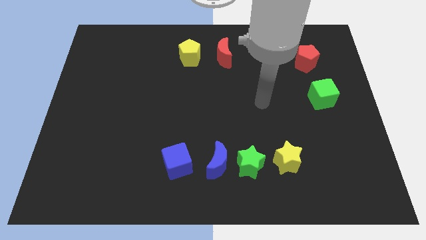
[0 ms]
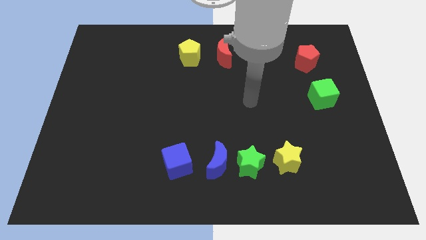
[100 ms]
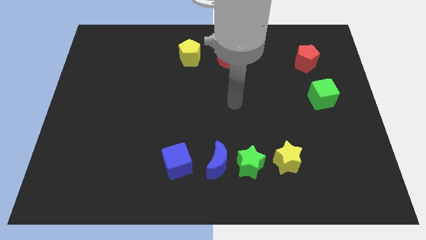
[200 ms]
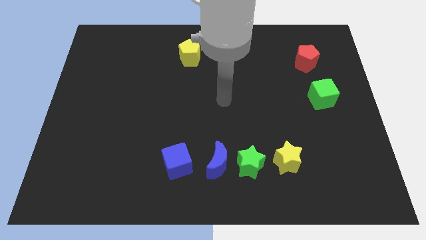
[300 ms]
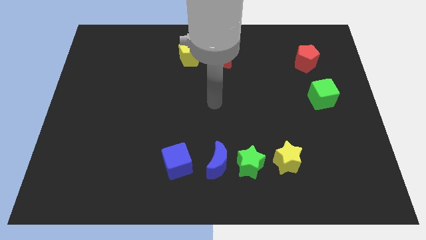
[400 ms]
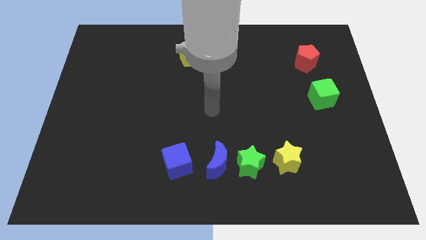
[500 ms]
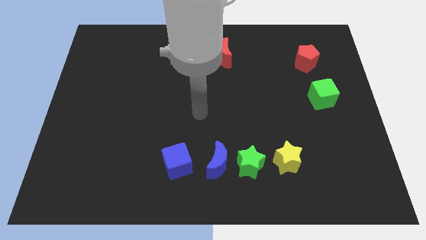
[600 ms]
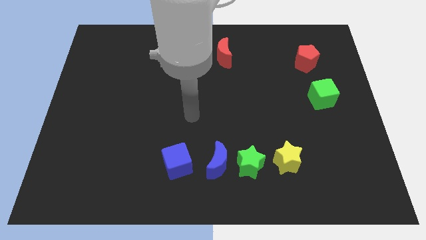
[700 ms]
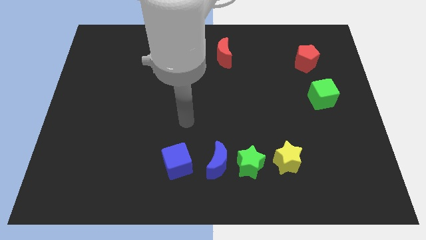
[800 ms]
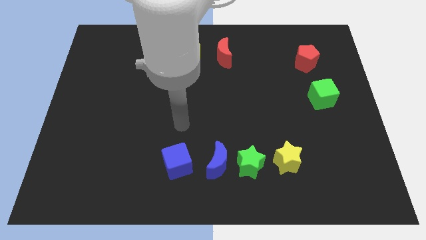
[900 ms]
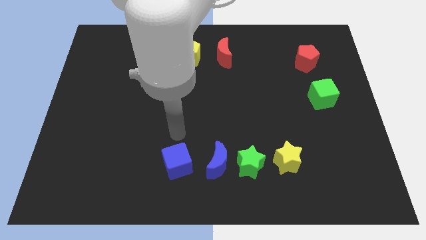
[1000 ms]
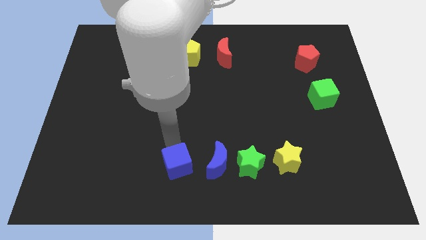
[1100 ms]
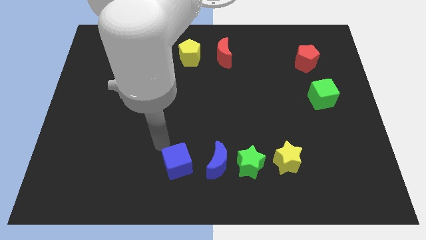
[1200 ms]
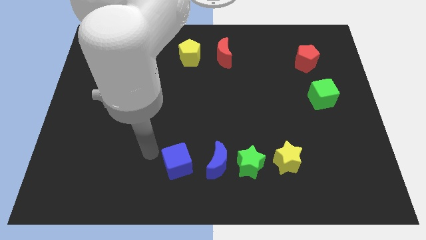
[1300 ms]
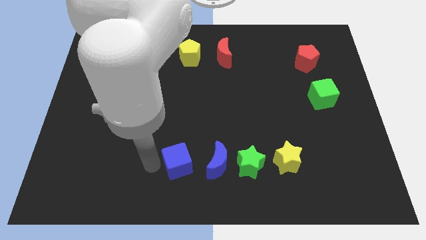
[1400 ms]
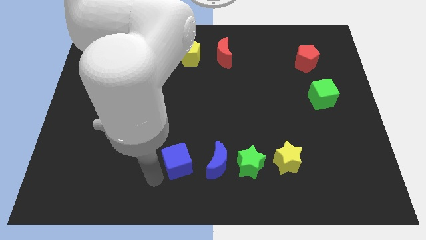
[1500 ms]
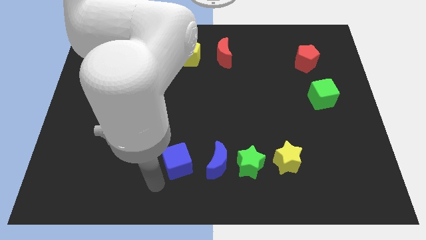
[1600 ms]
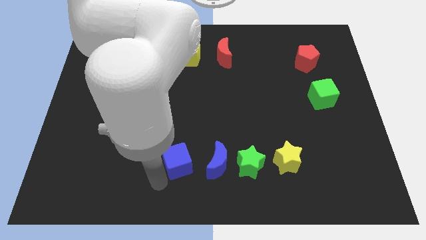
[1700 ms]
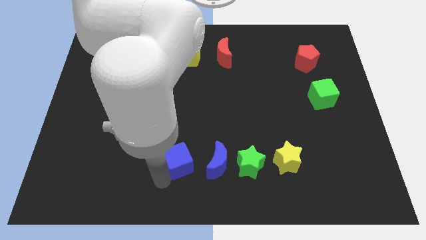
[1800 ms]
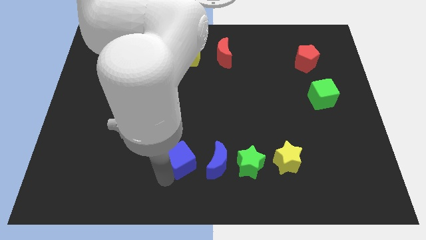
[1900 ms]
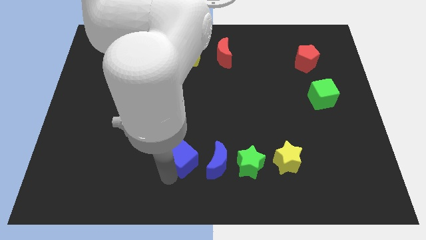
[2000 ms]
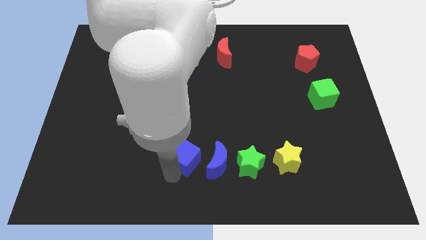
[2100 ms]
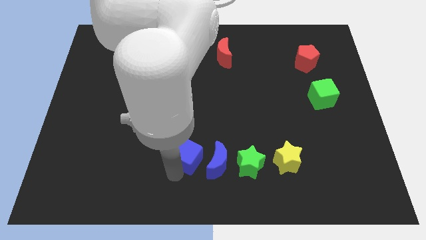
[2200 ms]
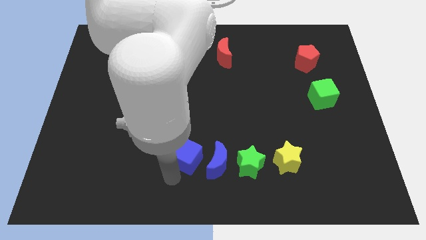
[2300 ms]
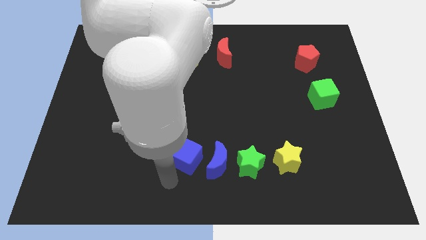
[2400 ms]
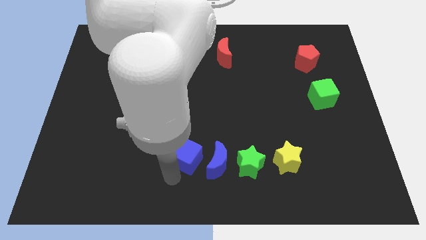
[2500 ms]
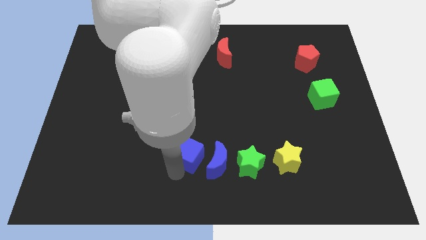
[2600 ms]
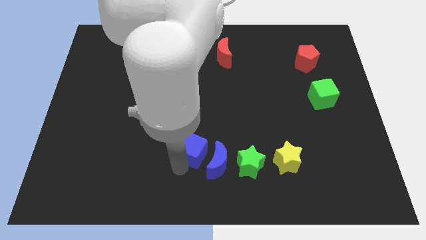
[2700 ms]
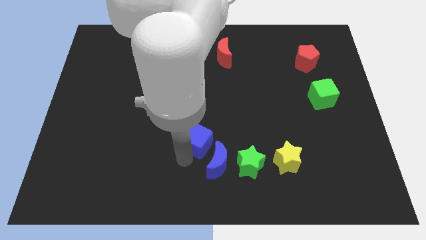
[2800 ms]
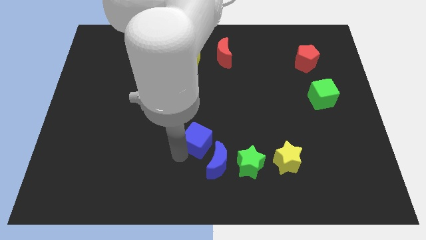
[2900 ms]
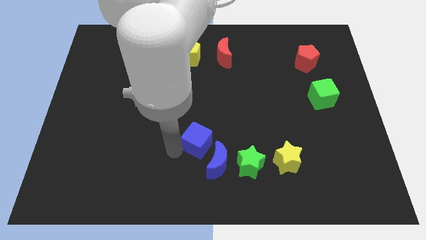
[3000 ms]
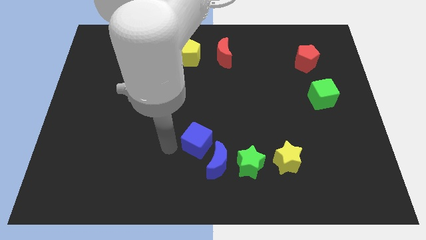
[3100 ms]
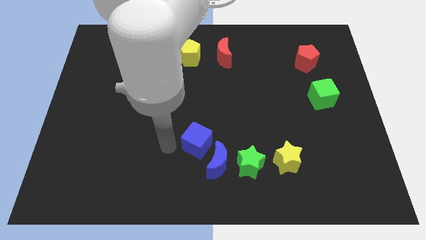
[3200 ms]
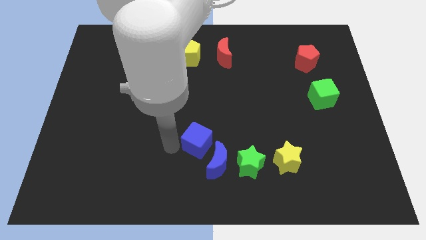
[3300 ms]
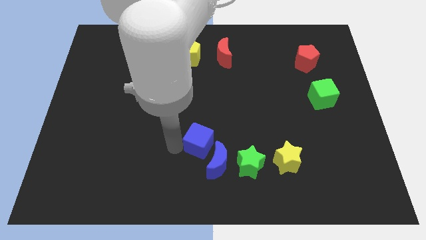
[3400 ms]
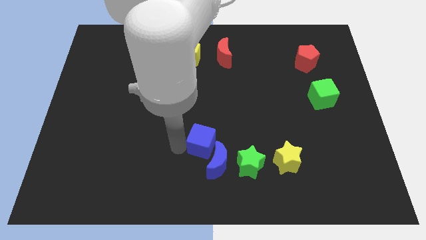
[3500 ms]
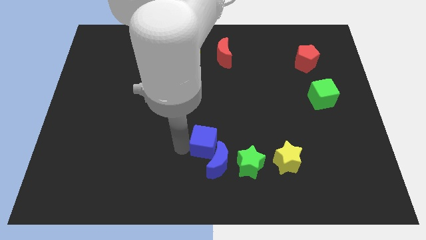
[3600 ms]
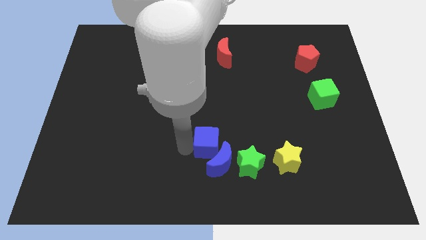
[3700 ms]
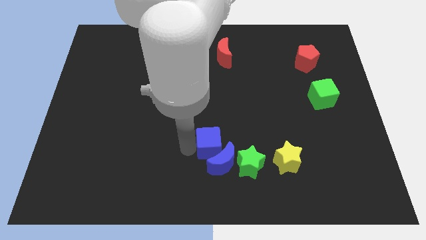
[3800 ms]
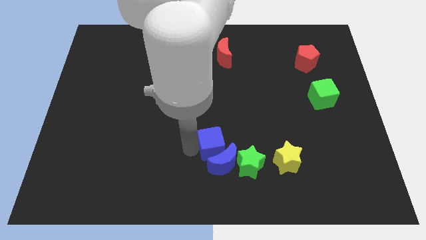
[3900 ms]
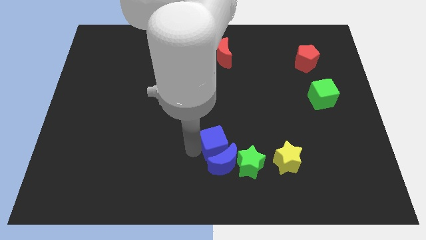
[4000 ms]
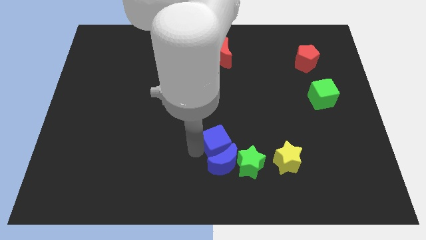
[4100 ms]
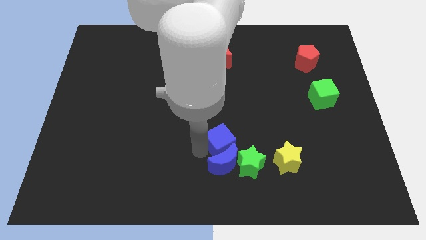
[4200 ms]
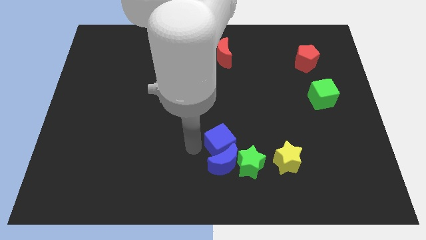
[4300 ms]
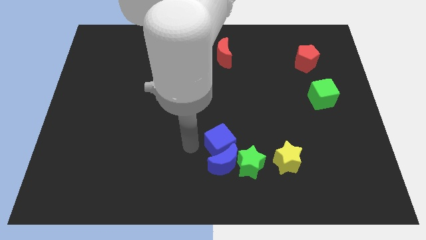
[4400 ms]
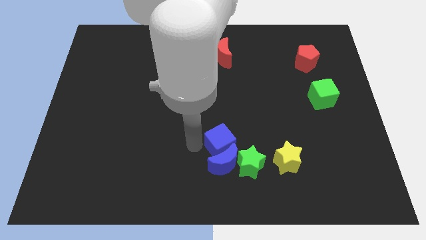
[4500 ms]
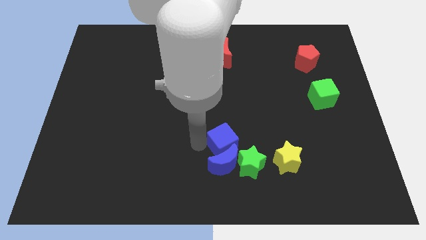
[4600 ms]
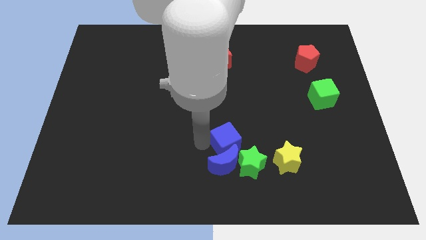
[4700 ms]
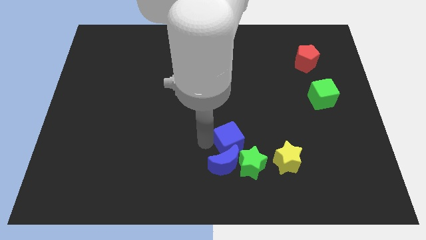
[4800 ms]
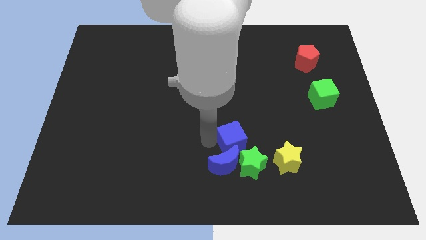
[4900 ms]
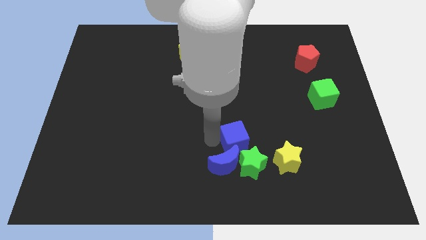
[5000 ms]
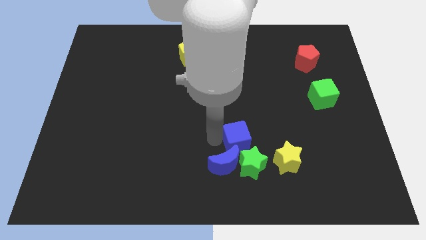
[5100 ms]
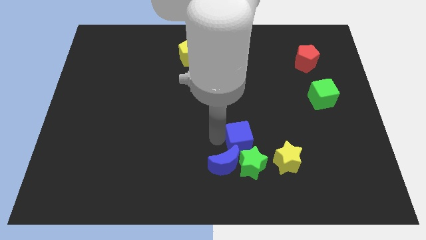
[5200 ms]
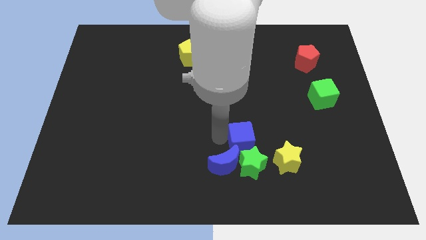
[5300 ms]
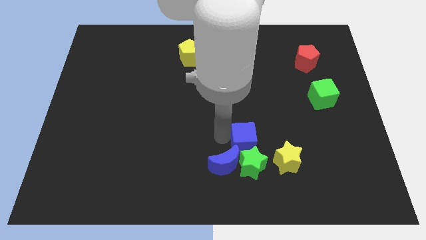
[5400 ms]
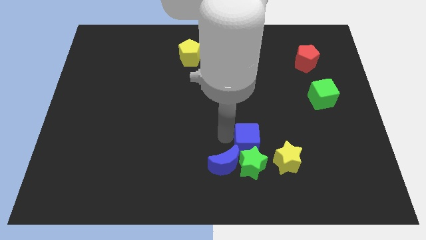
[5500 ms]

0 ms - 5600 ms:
push the blue cube diagonally up and to the right of the green star

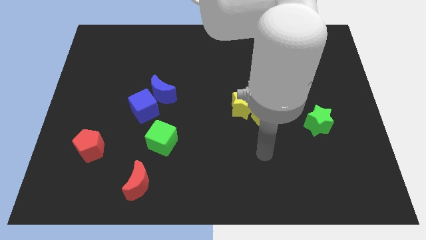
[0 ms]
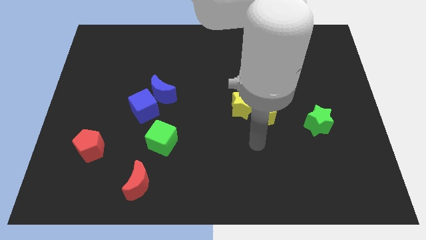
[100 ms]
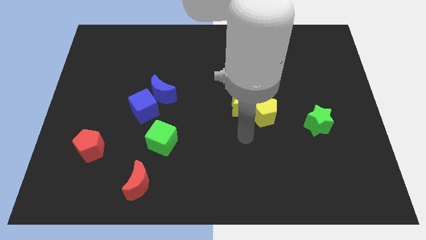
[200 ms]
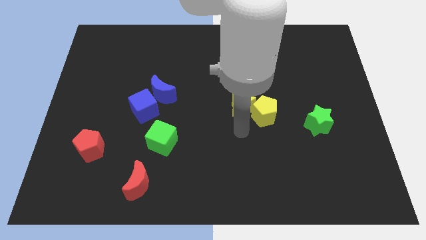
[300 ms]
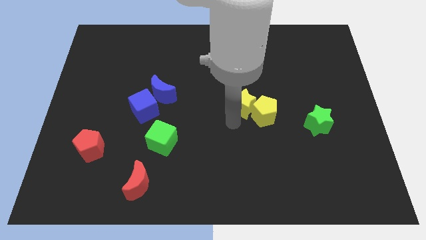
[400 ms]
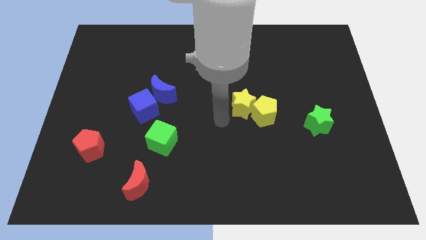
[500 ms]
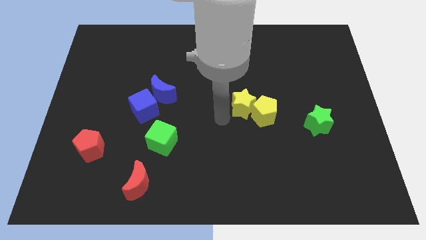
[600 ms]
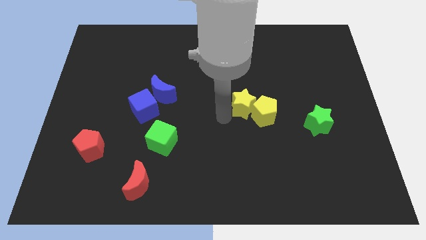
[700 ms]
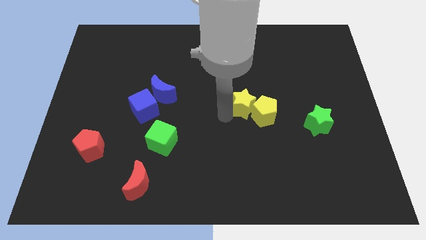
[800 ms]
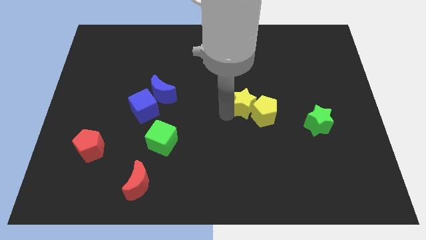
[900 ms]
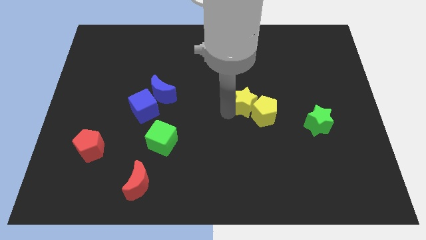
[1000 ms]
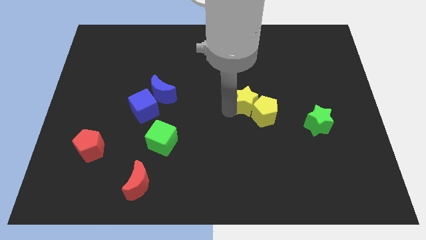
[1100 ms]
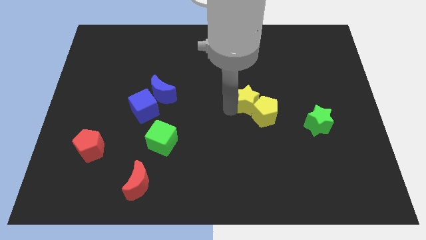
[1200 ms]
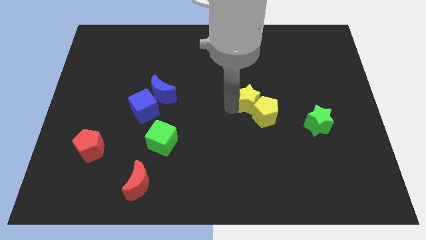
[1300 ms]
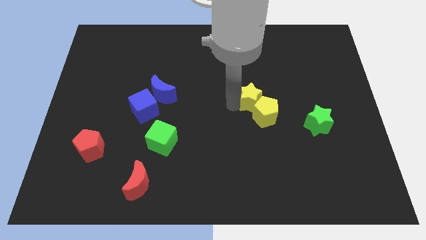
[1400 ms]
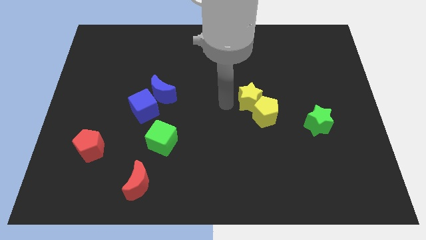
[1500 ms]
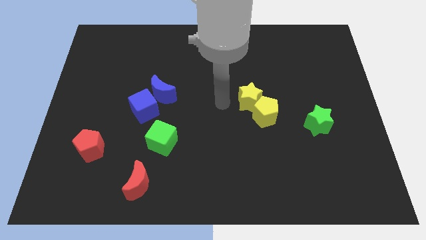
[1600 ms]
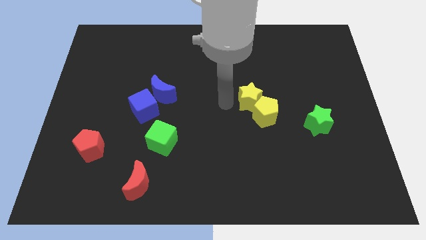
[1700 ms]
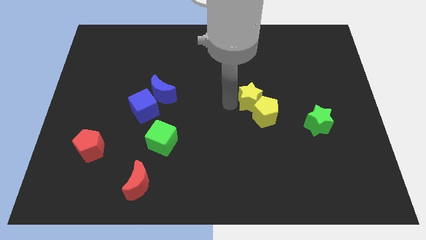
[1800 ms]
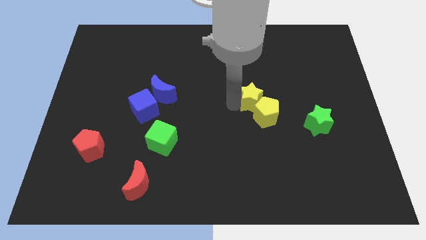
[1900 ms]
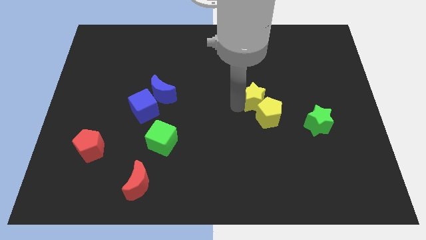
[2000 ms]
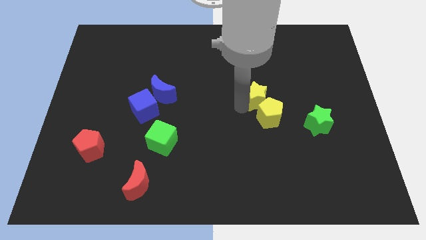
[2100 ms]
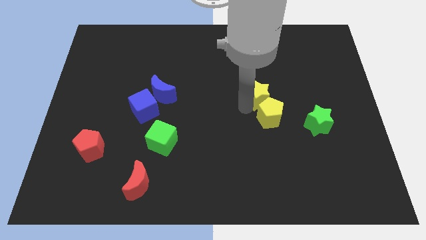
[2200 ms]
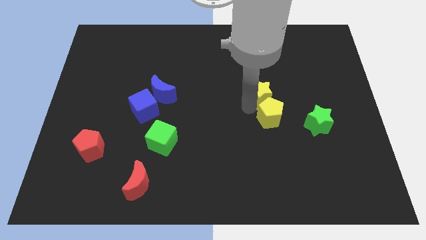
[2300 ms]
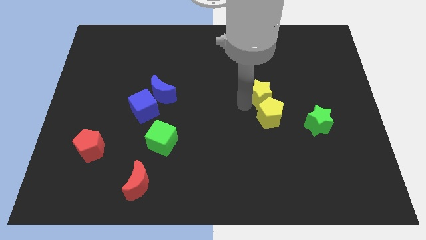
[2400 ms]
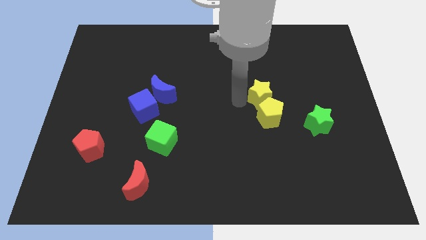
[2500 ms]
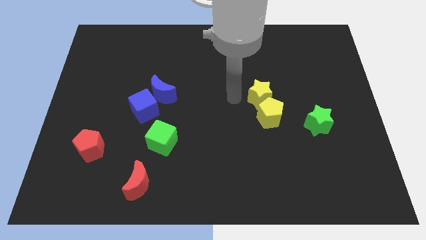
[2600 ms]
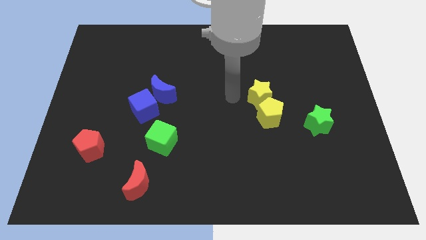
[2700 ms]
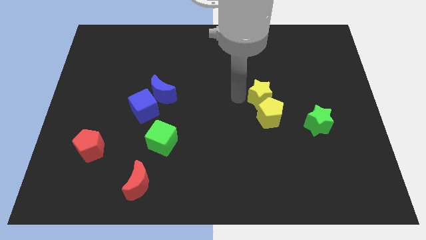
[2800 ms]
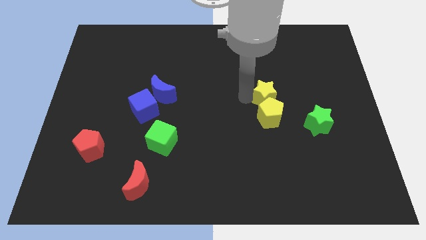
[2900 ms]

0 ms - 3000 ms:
put the yellow star diagonally up and to the right of the yellow pentagon
